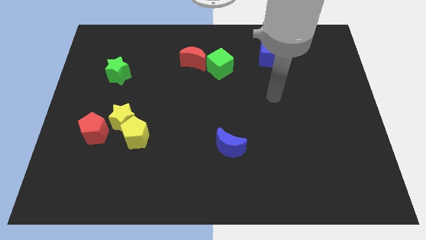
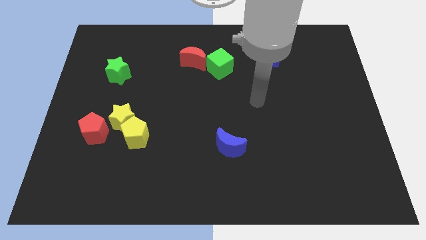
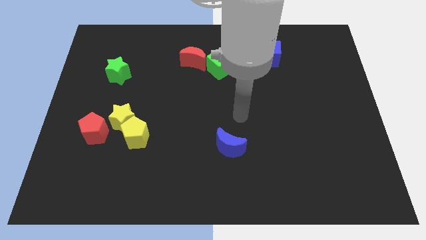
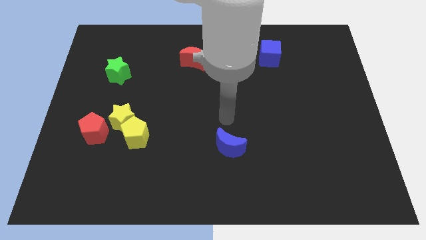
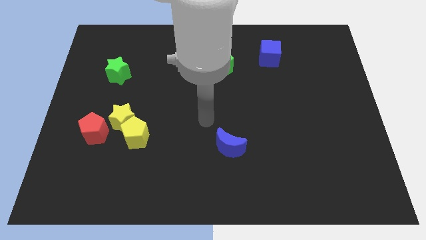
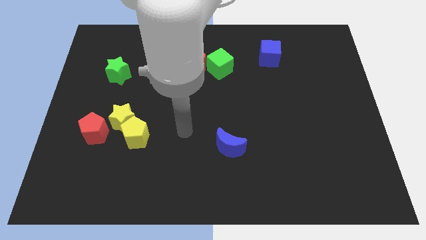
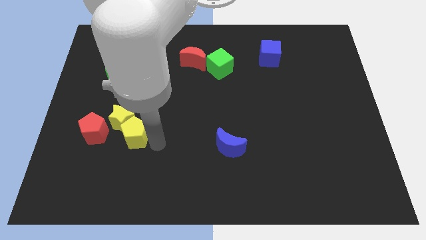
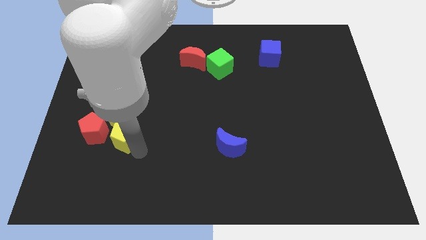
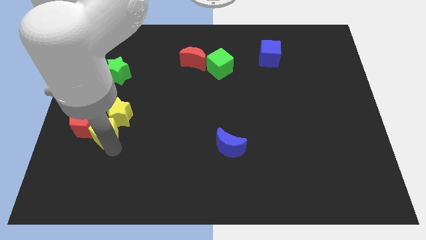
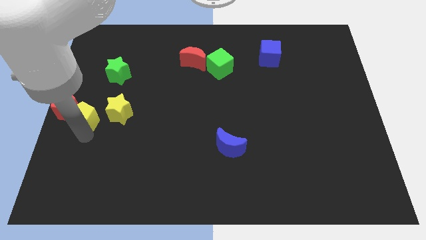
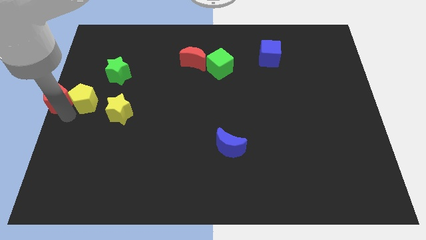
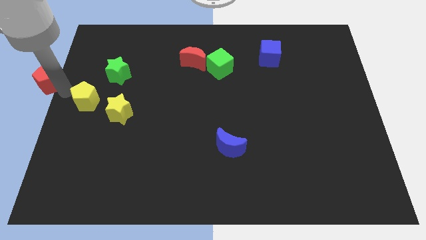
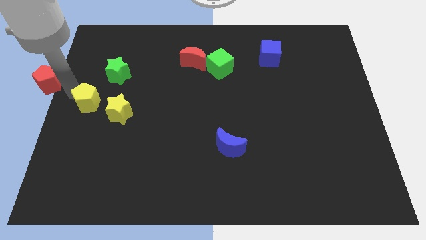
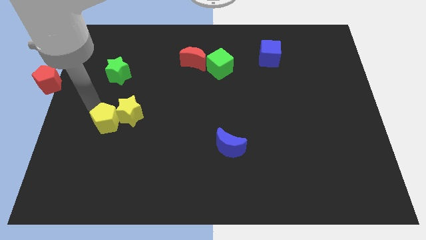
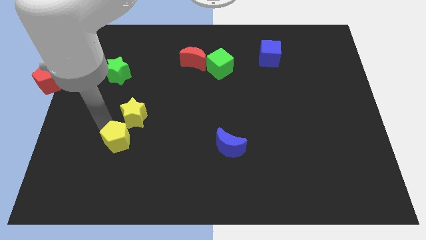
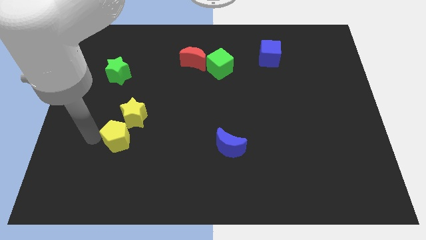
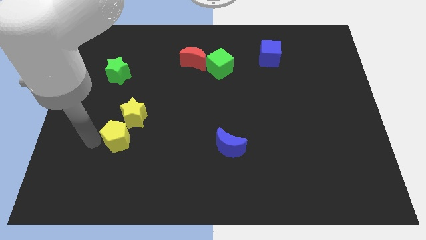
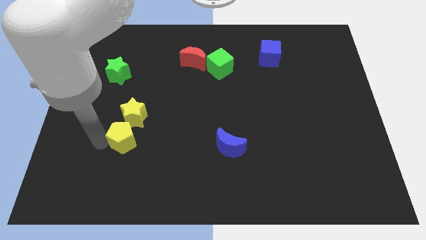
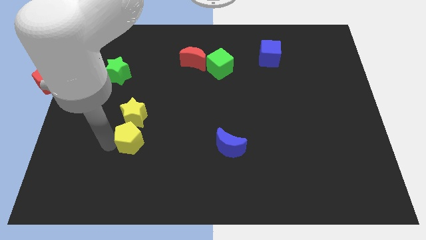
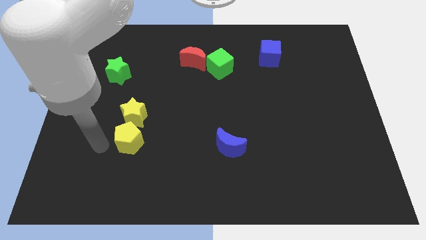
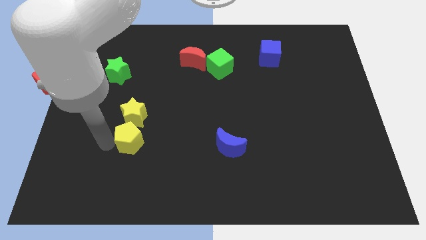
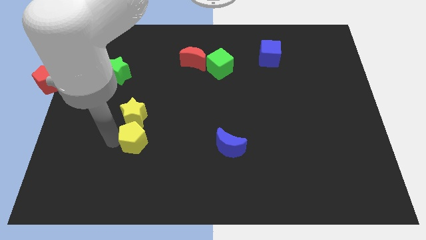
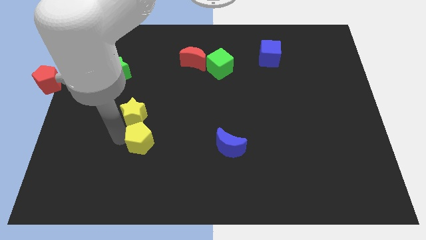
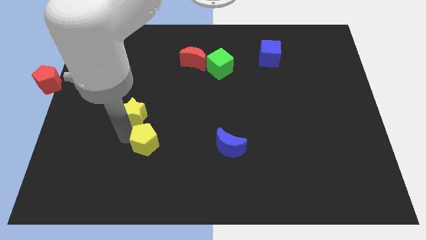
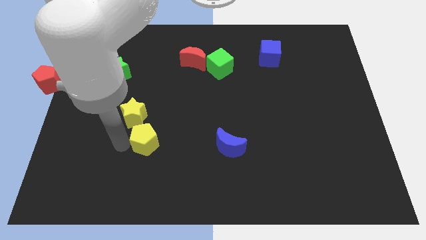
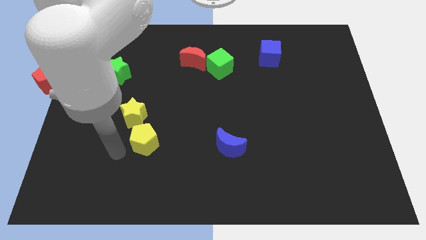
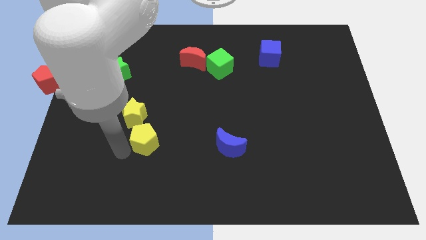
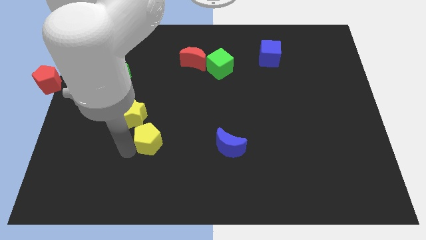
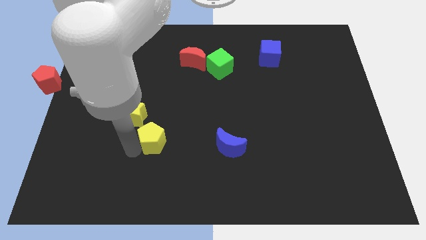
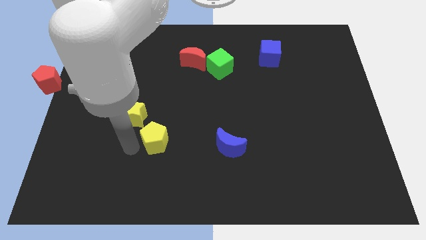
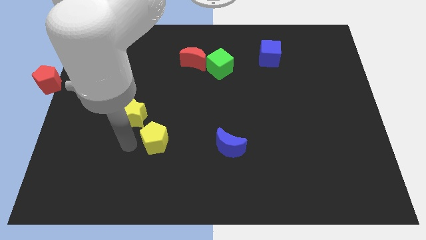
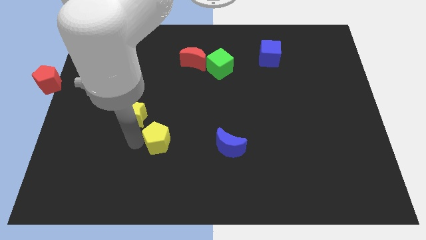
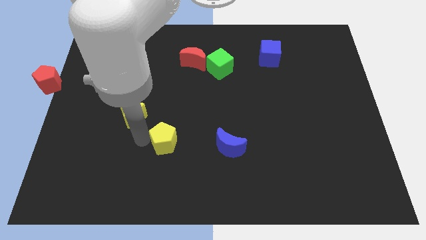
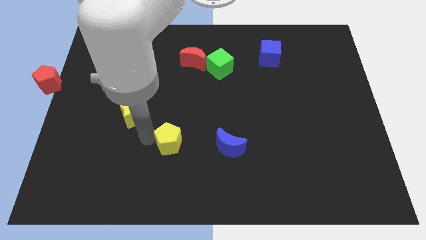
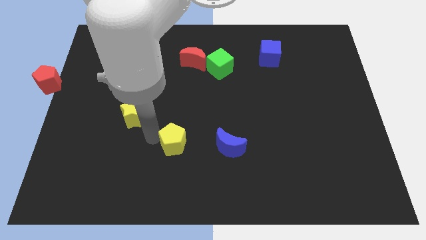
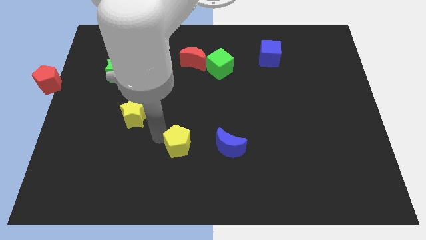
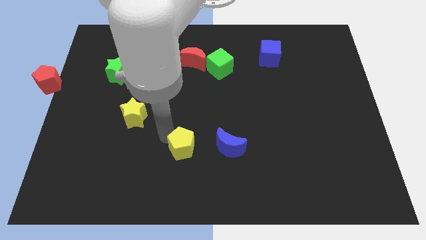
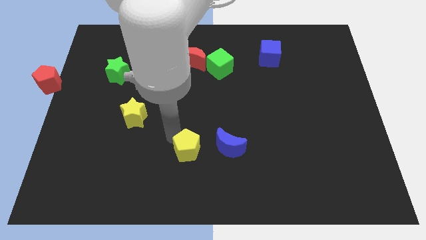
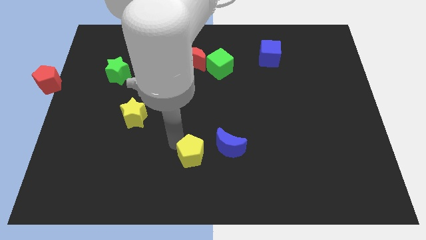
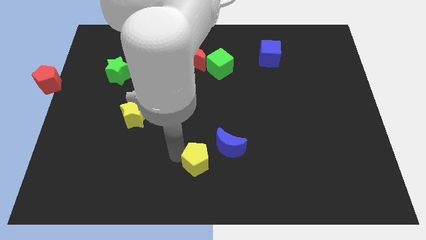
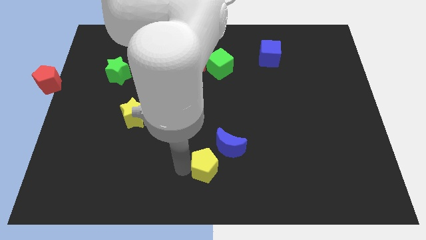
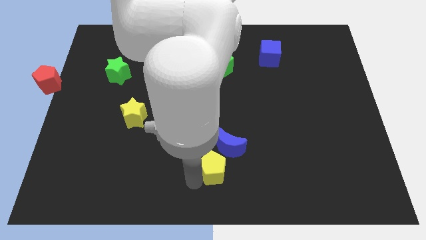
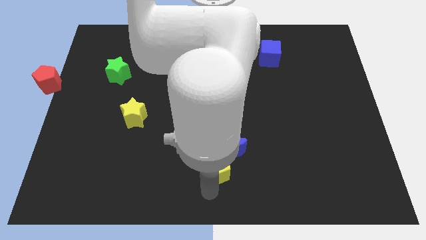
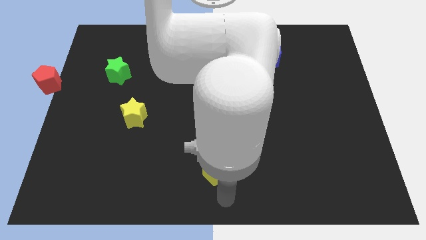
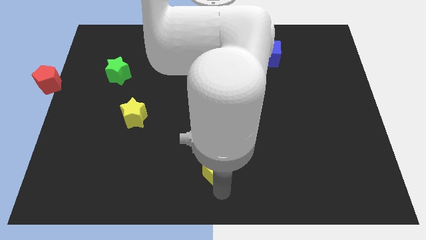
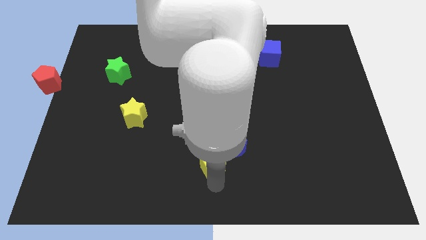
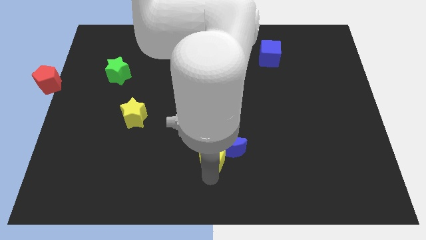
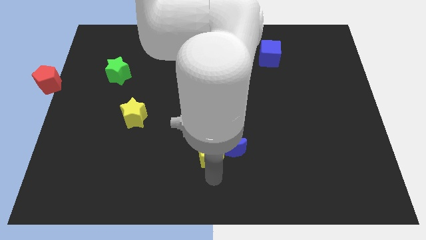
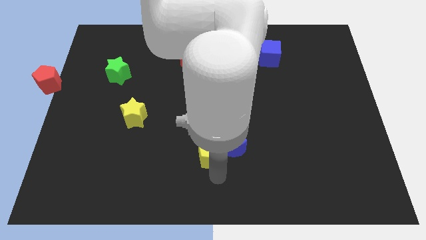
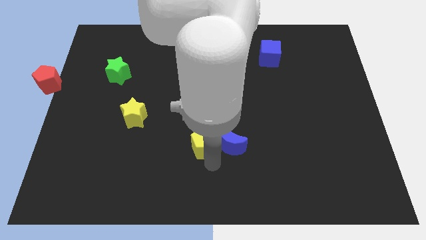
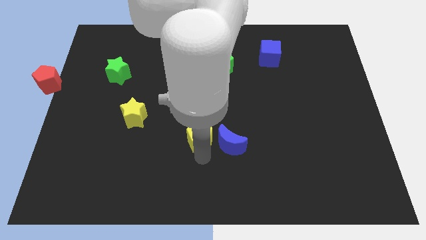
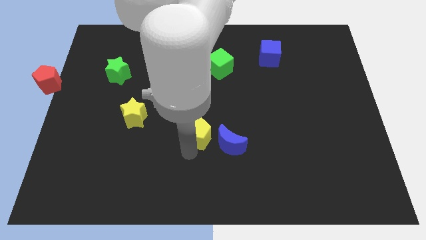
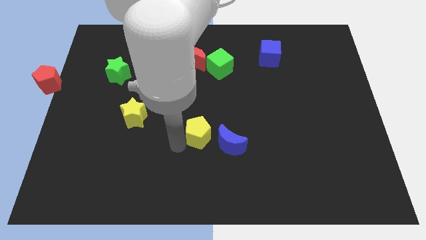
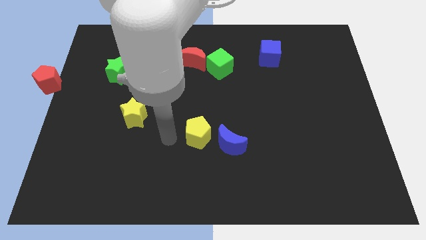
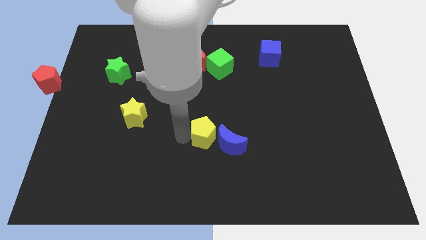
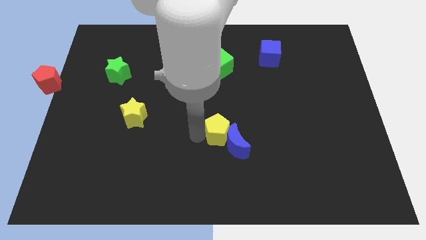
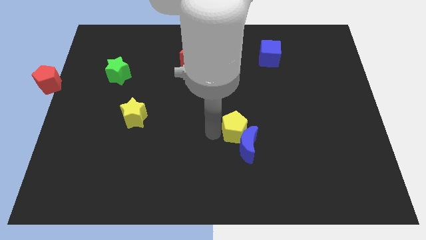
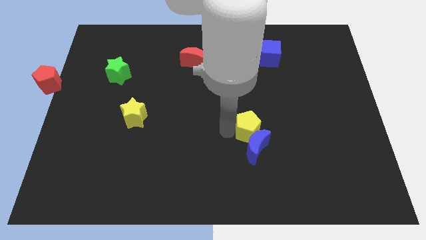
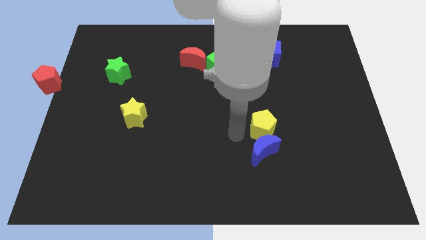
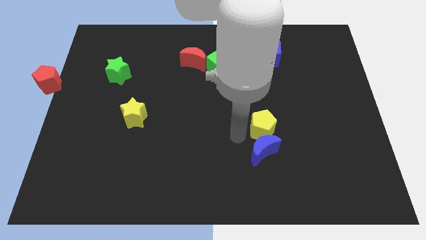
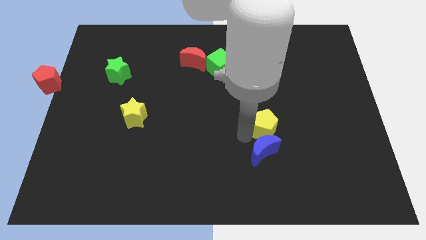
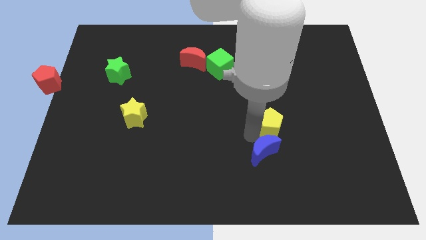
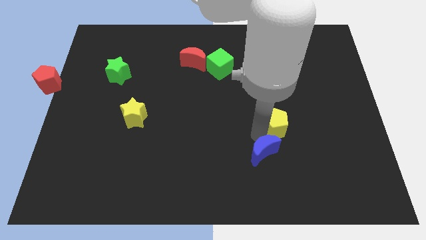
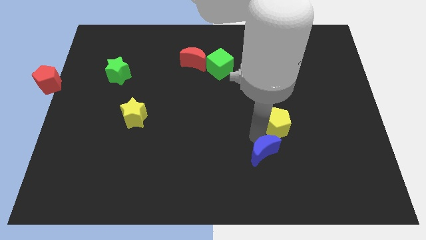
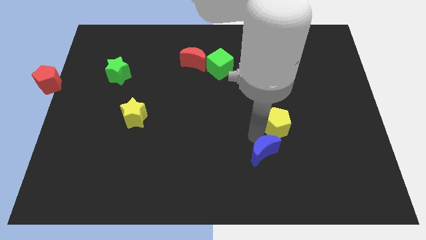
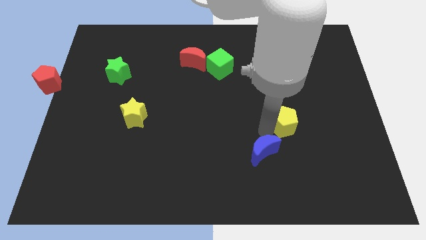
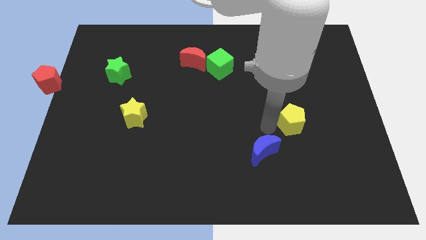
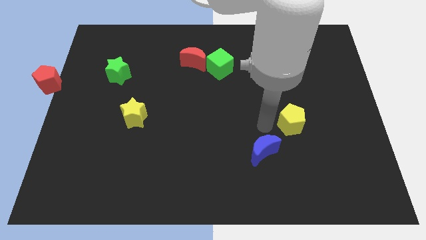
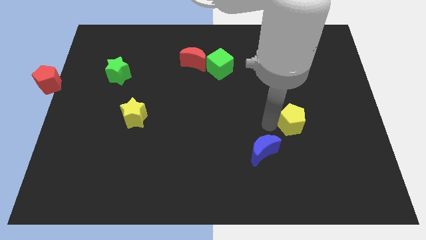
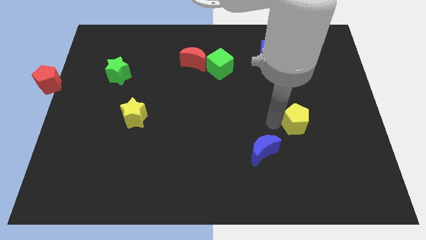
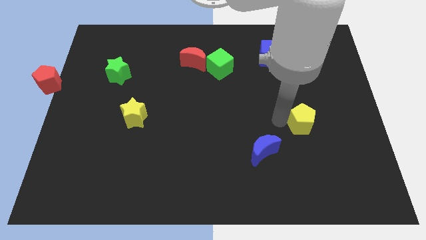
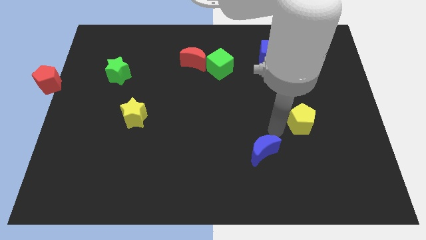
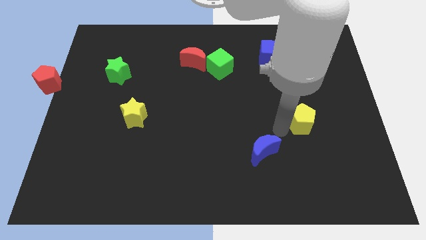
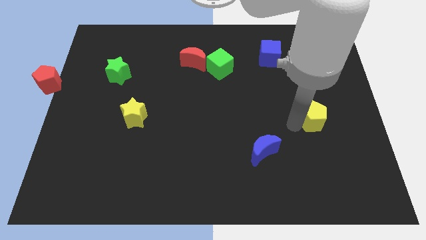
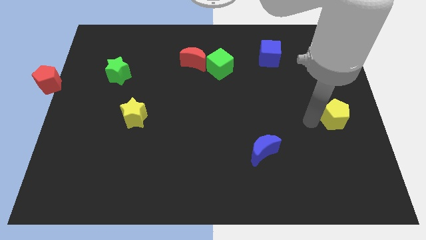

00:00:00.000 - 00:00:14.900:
move the yellow pentagon to the right side
